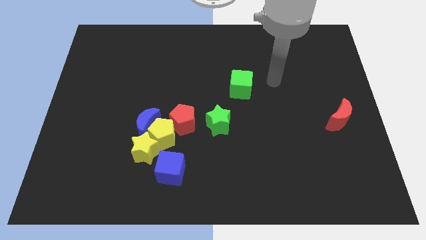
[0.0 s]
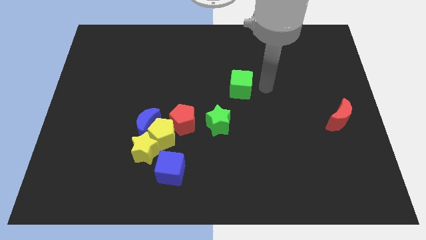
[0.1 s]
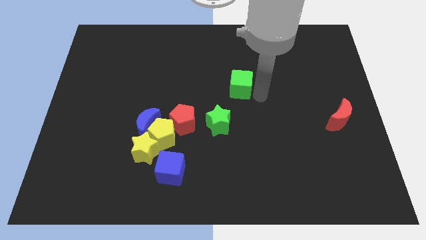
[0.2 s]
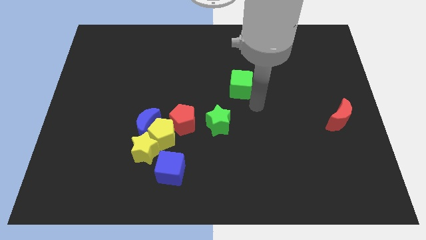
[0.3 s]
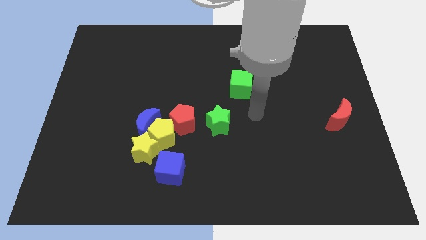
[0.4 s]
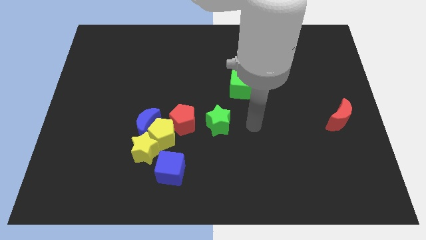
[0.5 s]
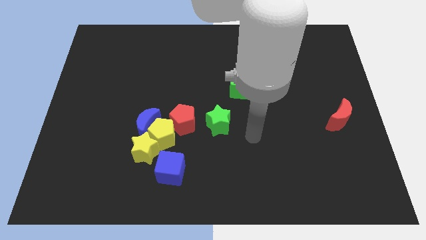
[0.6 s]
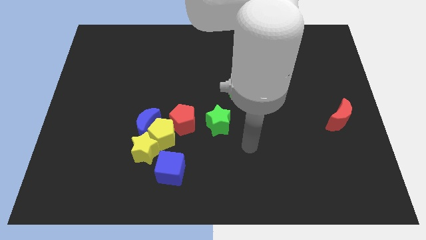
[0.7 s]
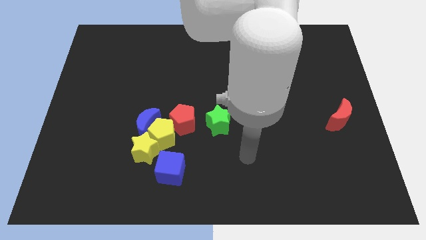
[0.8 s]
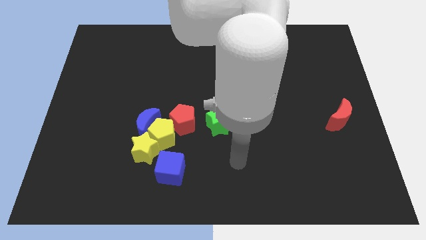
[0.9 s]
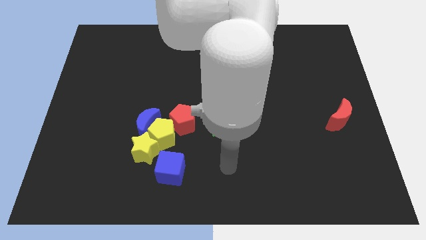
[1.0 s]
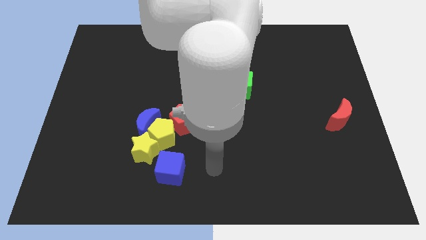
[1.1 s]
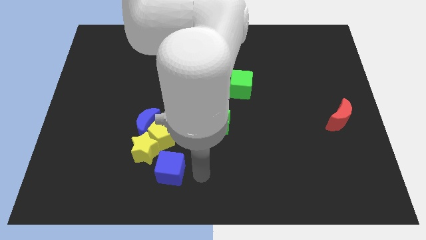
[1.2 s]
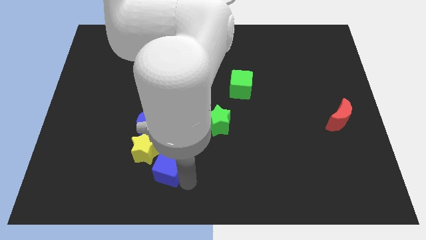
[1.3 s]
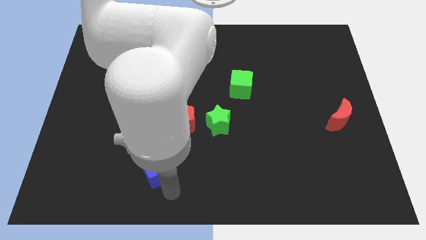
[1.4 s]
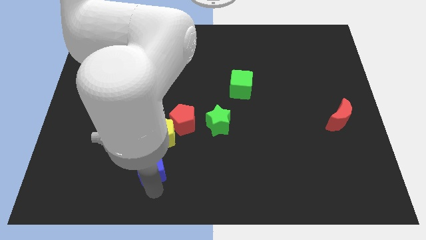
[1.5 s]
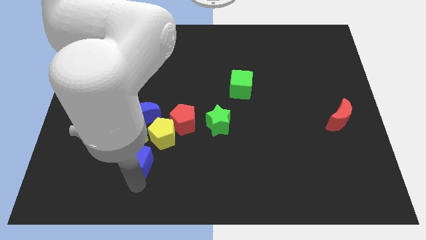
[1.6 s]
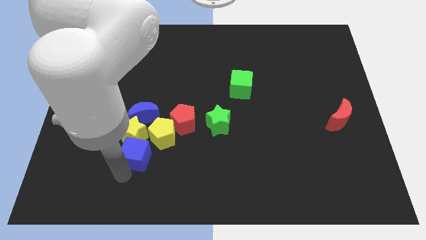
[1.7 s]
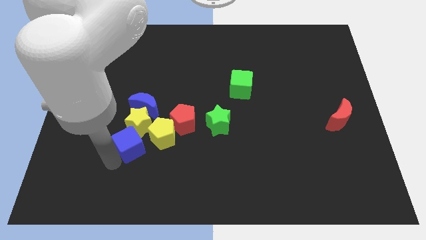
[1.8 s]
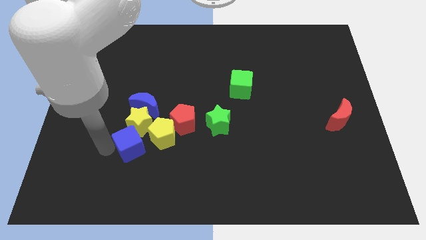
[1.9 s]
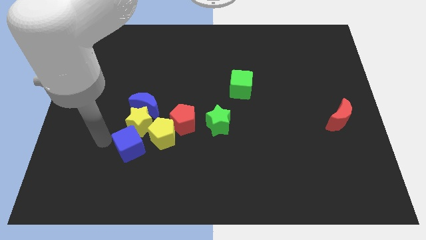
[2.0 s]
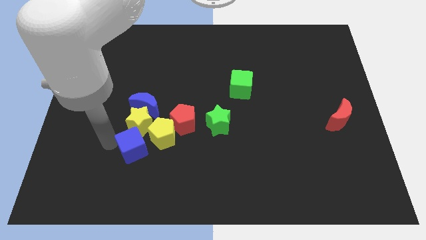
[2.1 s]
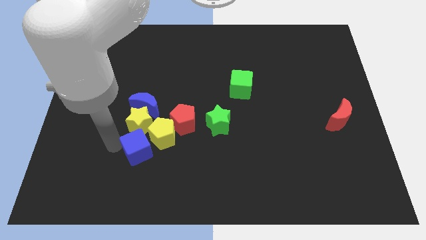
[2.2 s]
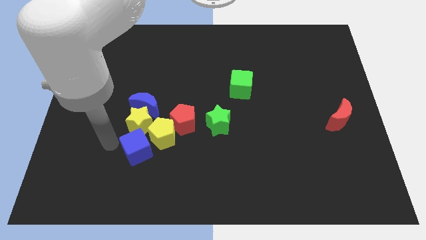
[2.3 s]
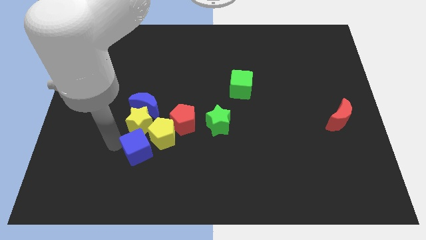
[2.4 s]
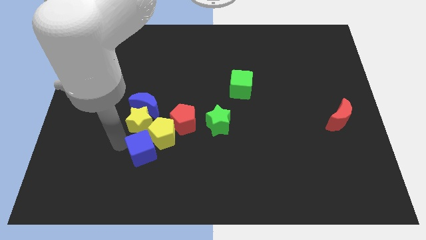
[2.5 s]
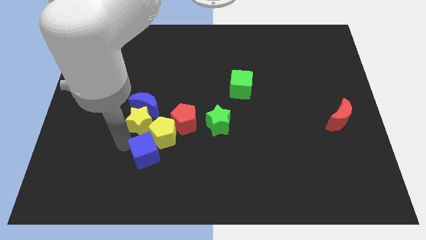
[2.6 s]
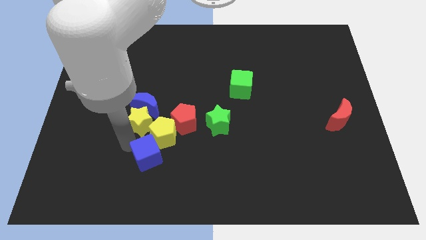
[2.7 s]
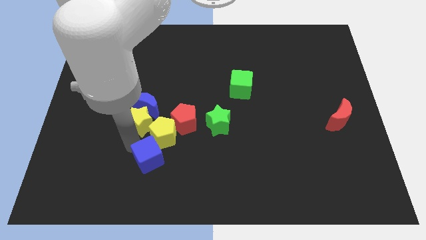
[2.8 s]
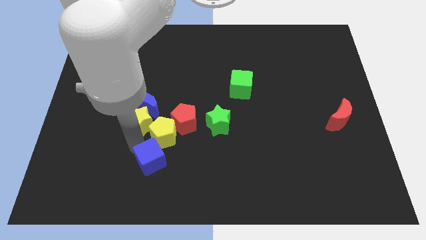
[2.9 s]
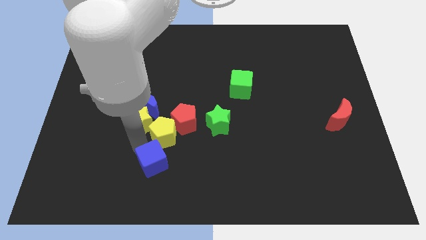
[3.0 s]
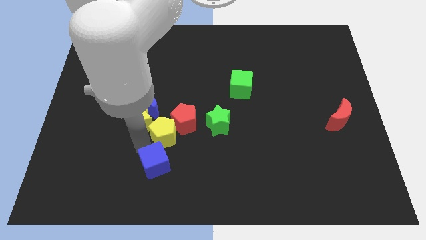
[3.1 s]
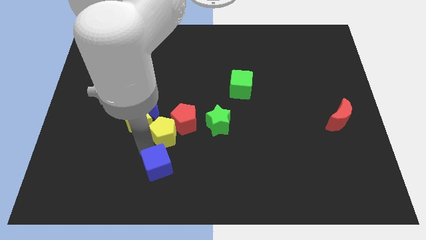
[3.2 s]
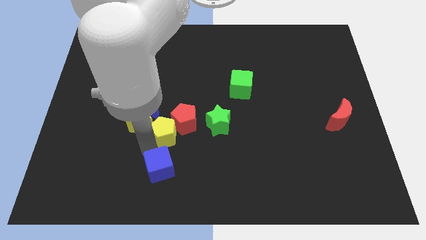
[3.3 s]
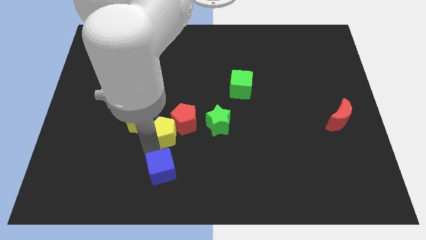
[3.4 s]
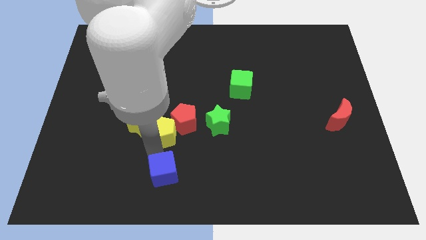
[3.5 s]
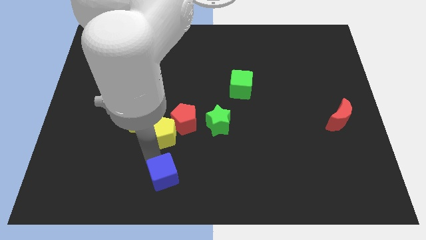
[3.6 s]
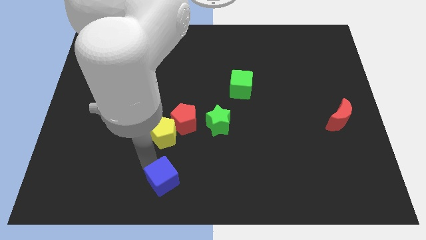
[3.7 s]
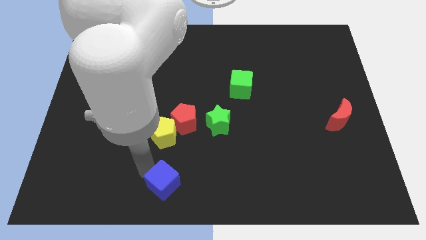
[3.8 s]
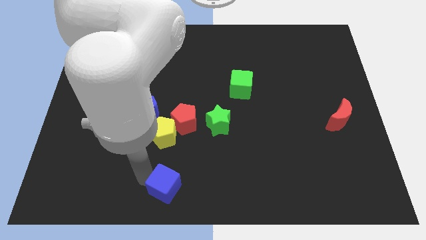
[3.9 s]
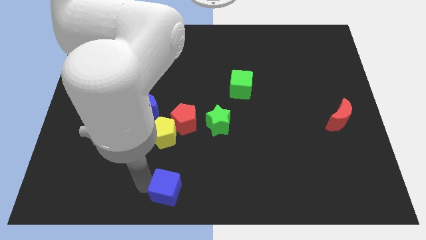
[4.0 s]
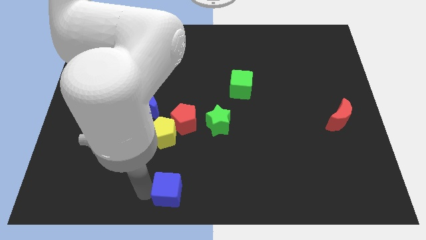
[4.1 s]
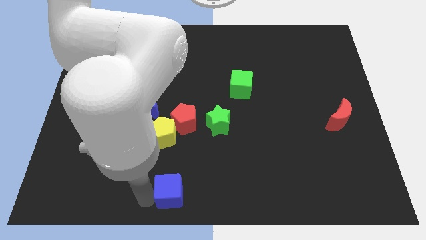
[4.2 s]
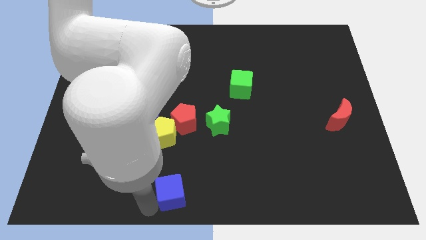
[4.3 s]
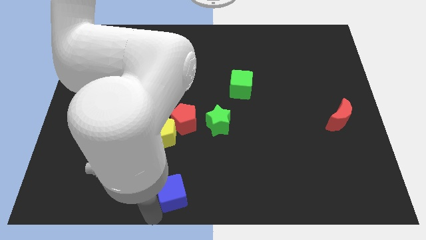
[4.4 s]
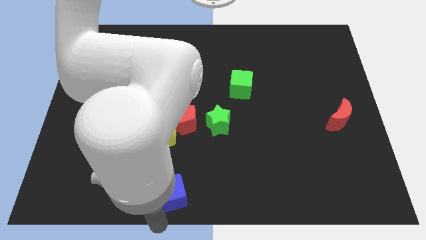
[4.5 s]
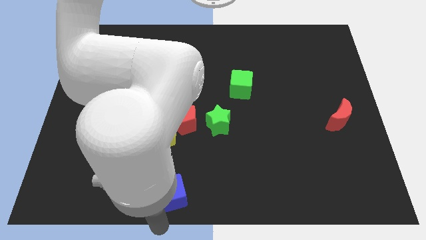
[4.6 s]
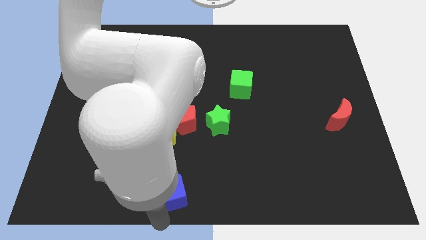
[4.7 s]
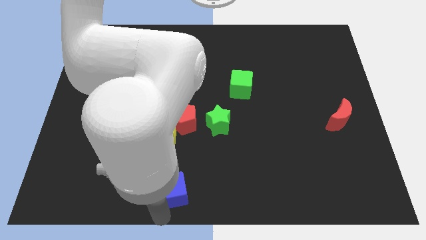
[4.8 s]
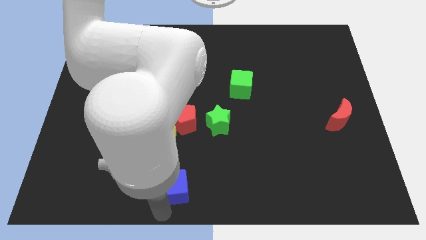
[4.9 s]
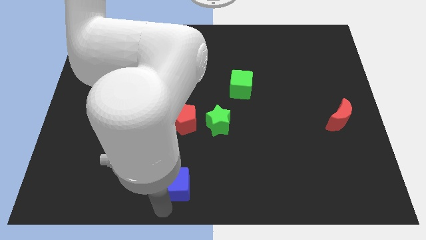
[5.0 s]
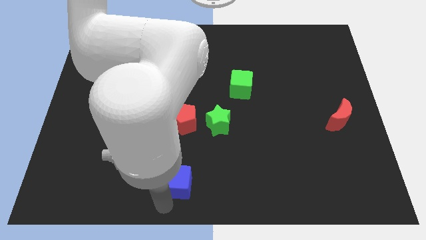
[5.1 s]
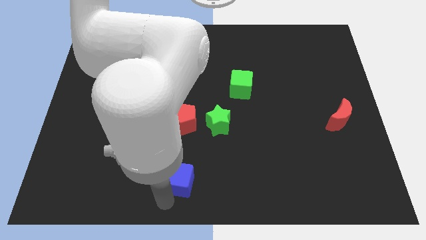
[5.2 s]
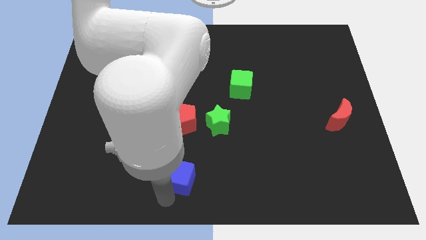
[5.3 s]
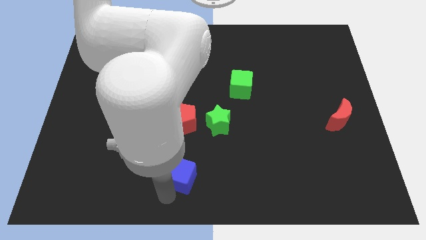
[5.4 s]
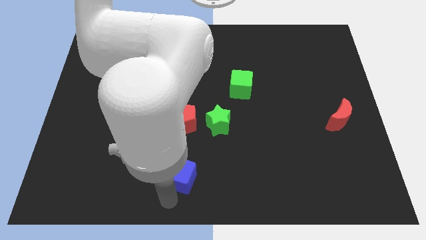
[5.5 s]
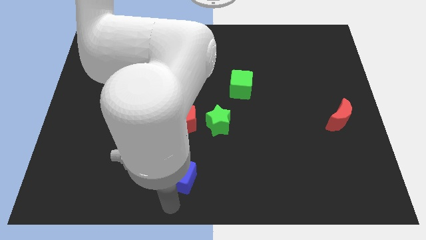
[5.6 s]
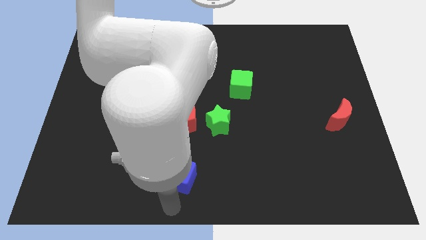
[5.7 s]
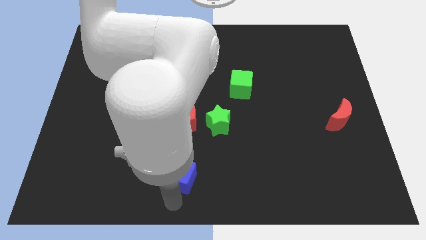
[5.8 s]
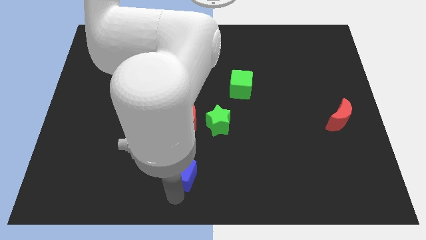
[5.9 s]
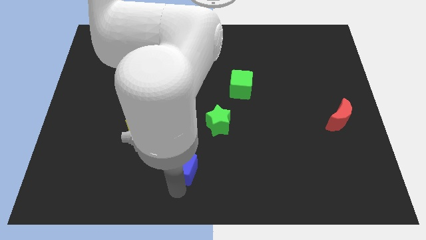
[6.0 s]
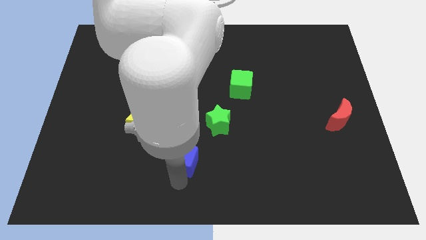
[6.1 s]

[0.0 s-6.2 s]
move the blue cube to the bottom left of the green star

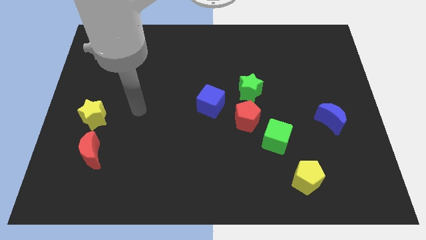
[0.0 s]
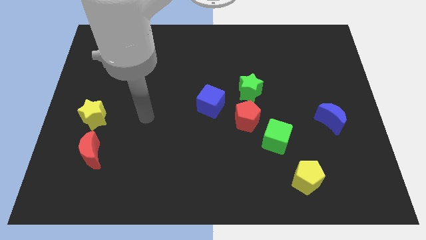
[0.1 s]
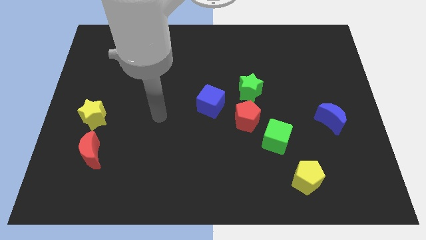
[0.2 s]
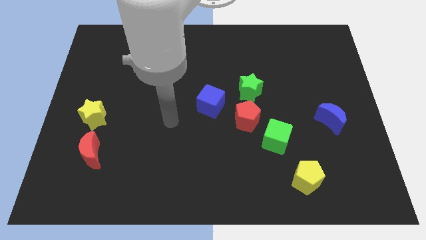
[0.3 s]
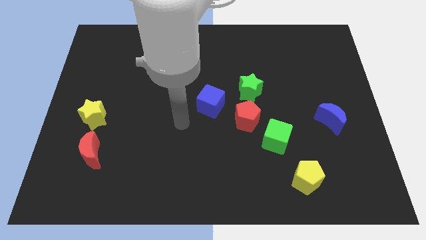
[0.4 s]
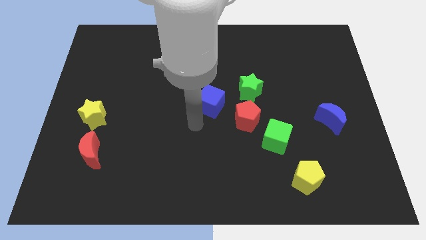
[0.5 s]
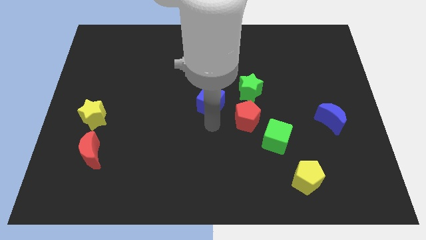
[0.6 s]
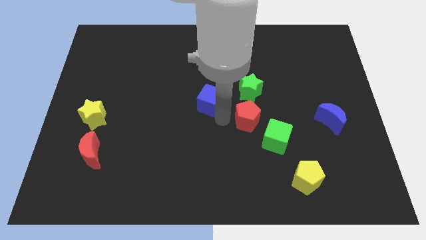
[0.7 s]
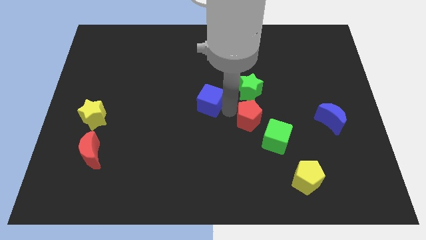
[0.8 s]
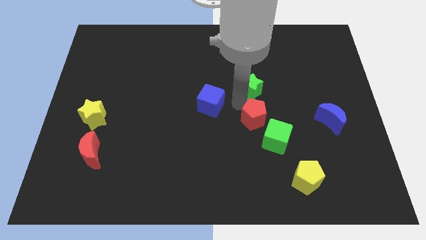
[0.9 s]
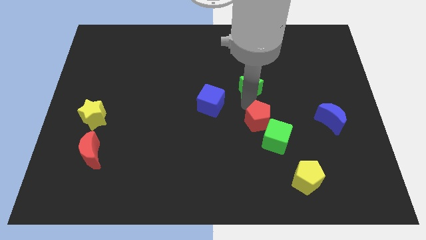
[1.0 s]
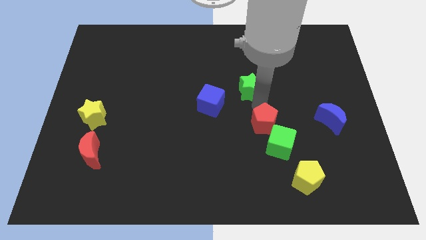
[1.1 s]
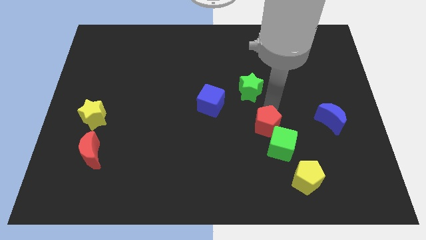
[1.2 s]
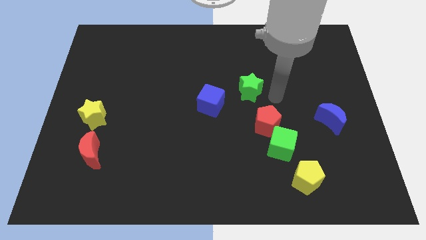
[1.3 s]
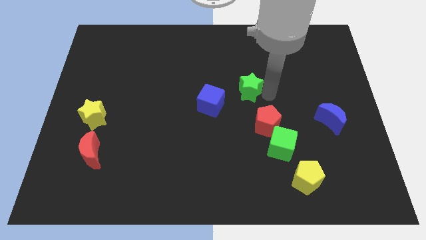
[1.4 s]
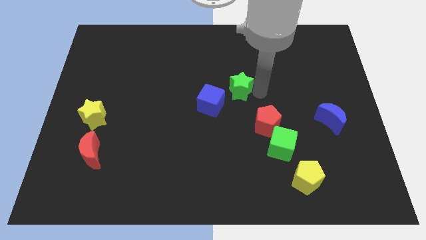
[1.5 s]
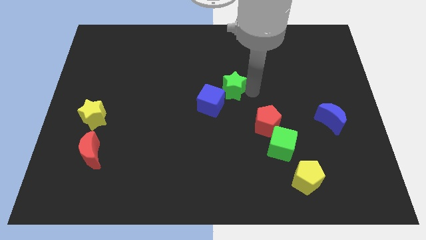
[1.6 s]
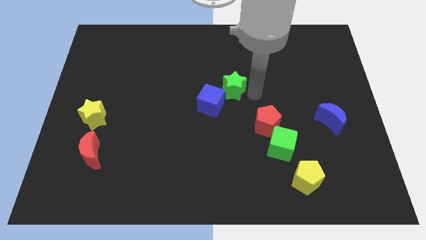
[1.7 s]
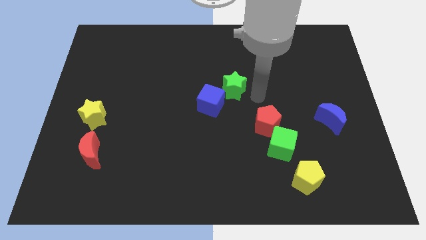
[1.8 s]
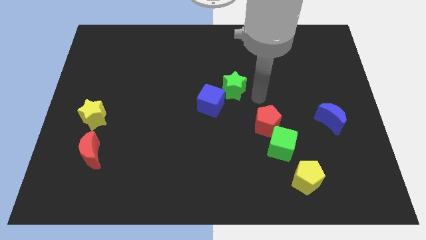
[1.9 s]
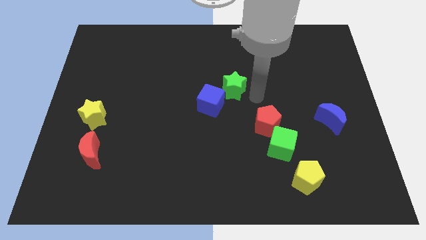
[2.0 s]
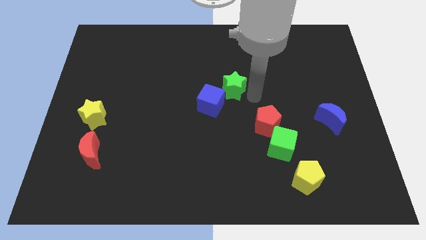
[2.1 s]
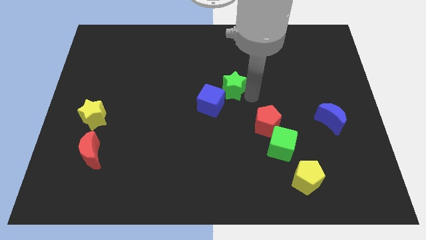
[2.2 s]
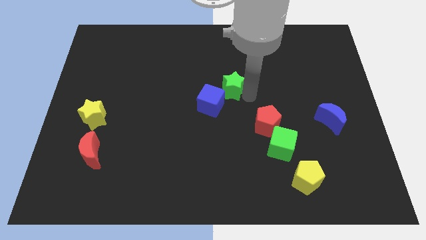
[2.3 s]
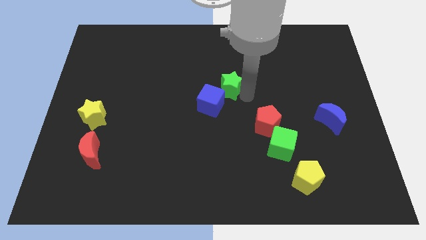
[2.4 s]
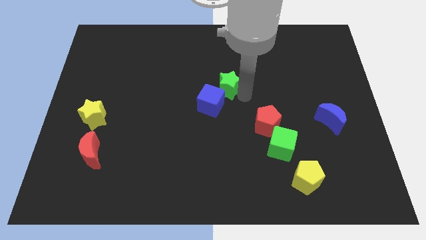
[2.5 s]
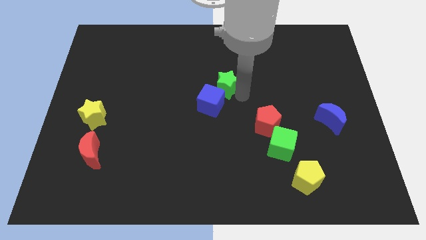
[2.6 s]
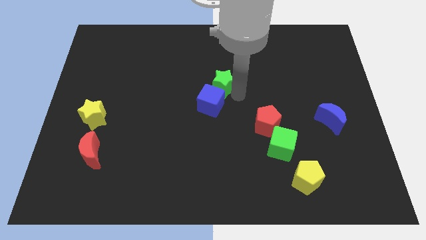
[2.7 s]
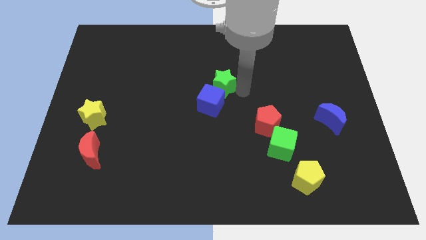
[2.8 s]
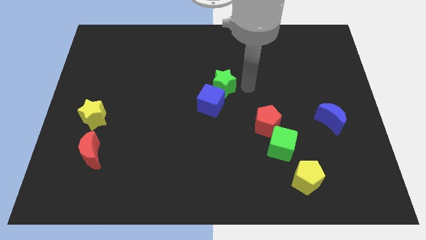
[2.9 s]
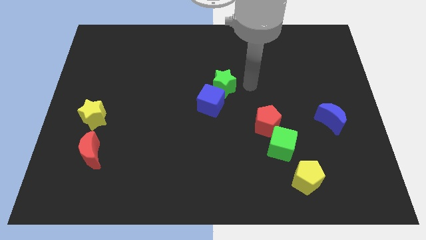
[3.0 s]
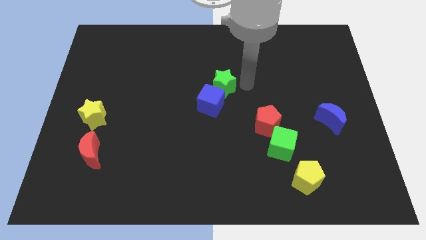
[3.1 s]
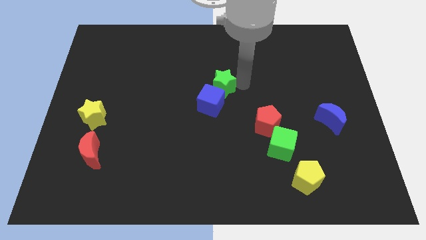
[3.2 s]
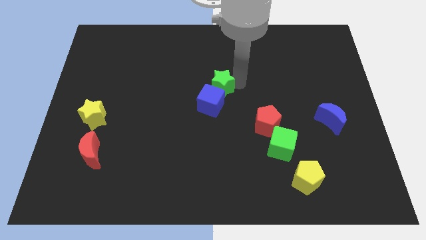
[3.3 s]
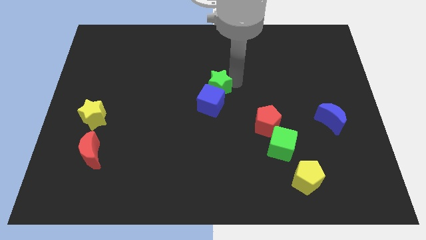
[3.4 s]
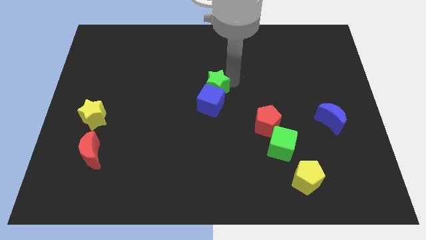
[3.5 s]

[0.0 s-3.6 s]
push the green star to the top left of the blue cube
